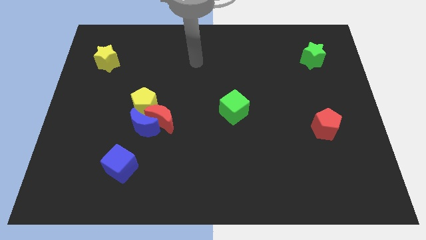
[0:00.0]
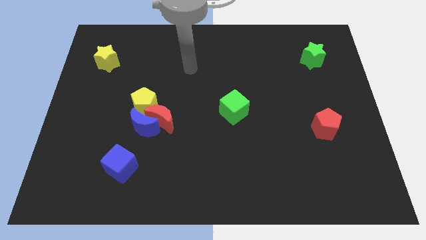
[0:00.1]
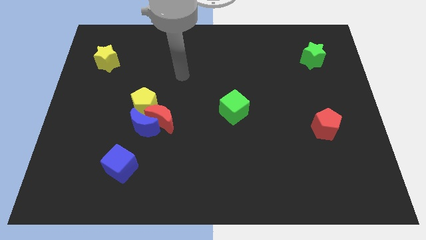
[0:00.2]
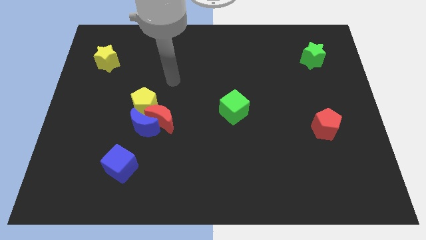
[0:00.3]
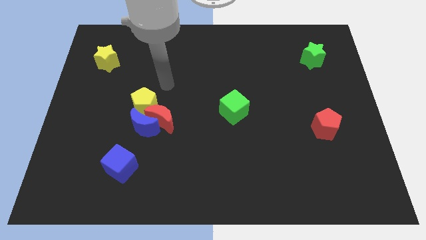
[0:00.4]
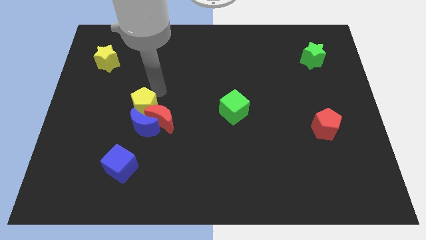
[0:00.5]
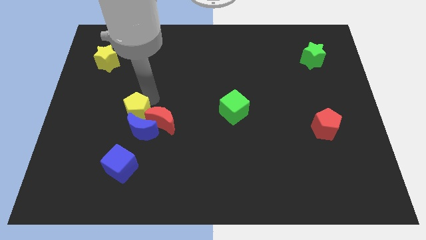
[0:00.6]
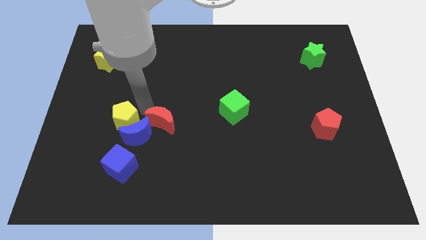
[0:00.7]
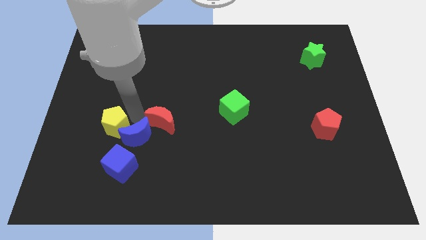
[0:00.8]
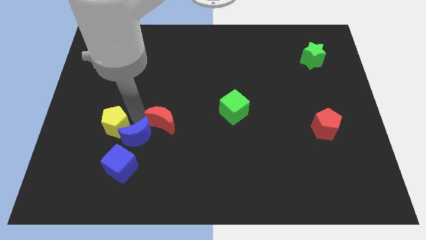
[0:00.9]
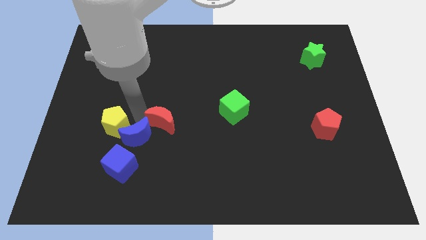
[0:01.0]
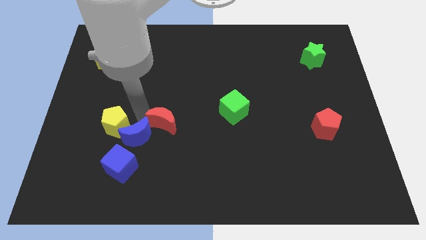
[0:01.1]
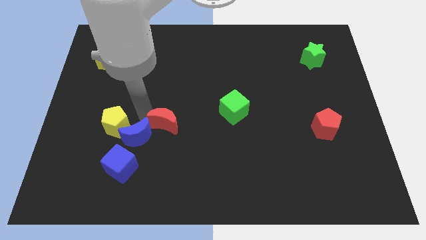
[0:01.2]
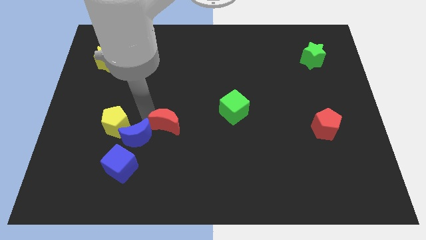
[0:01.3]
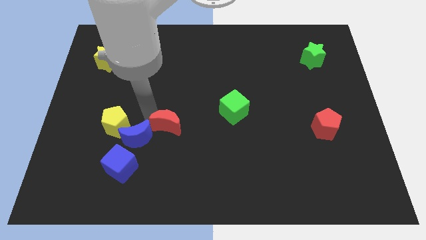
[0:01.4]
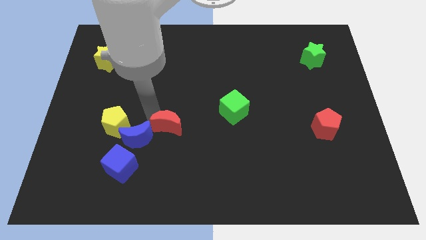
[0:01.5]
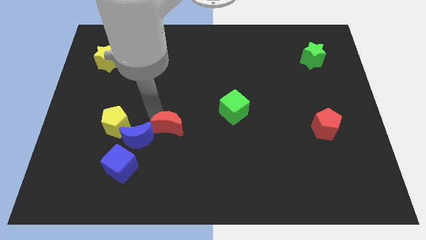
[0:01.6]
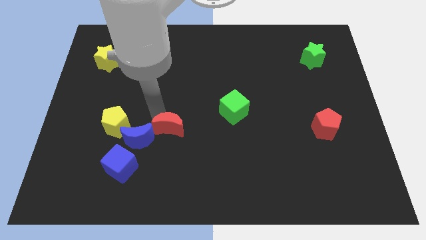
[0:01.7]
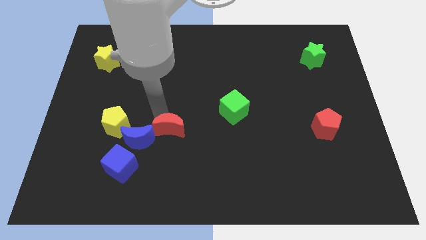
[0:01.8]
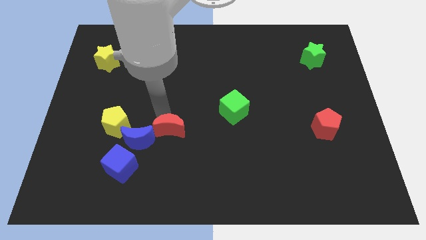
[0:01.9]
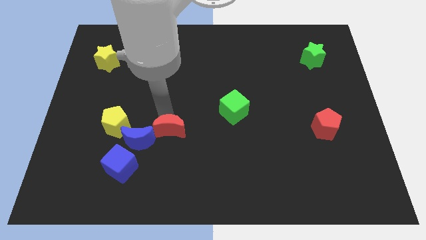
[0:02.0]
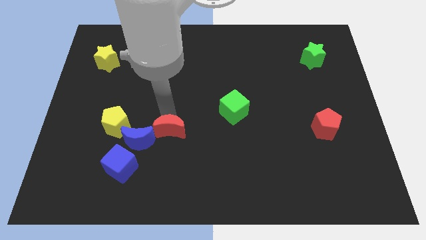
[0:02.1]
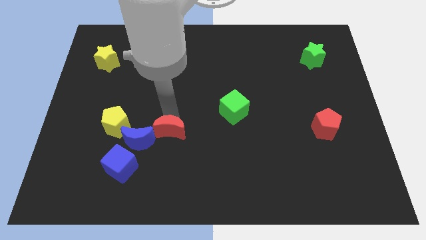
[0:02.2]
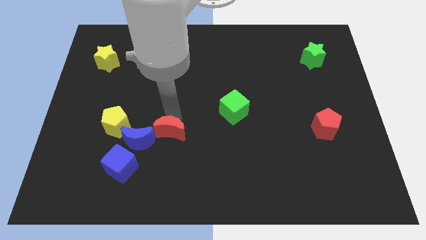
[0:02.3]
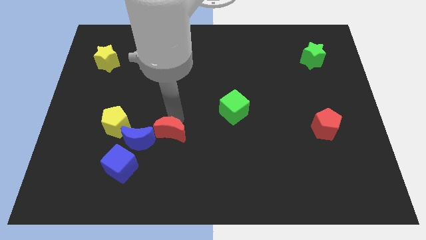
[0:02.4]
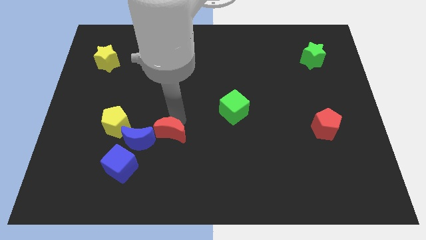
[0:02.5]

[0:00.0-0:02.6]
separate the red moon from the blue moon and yellow pentagon

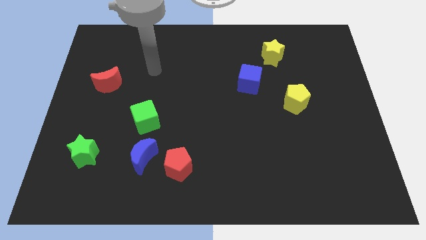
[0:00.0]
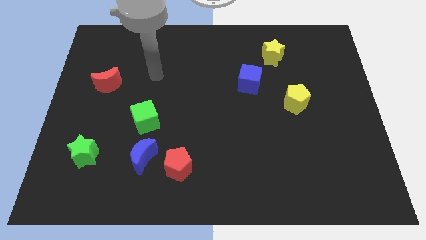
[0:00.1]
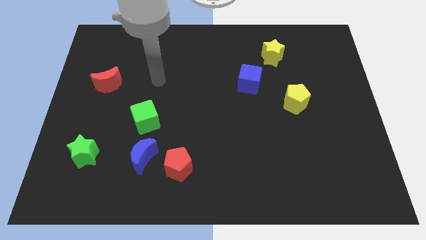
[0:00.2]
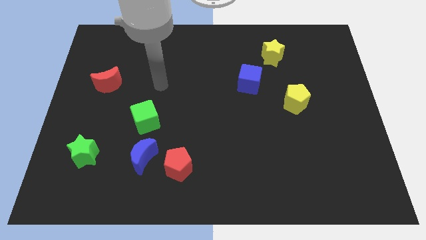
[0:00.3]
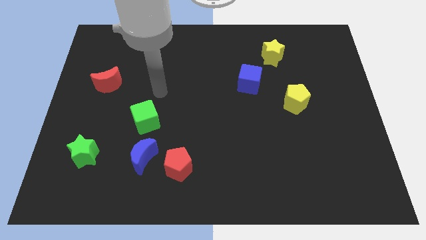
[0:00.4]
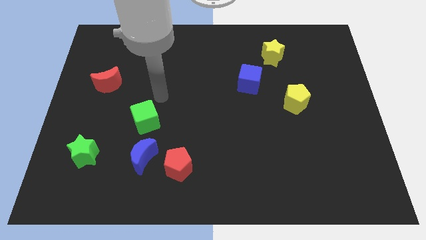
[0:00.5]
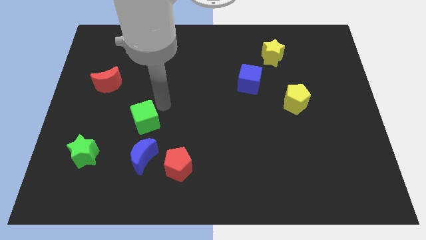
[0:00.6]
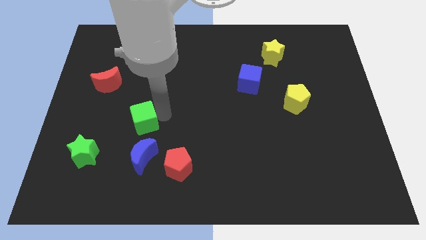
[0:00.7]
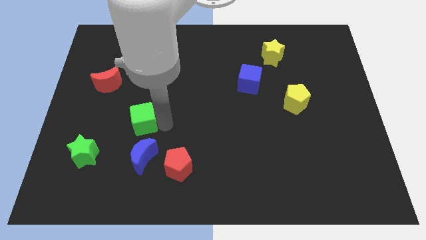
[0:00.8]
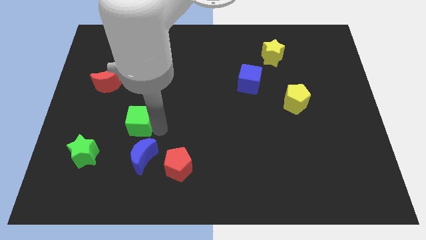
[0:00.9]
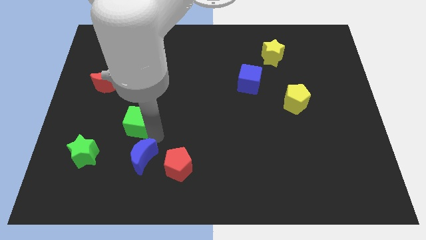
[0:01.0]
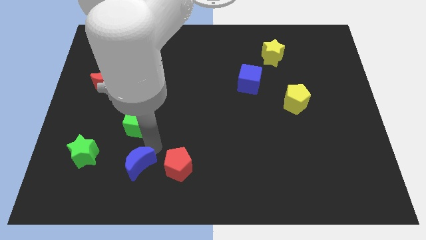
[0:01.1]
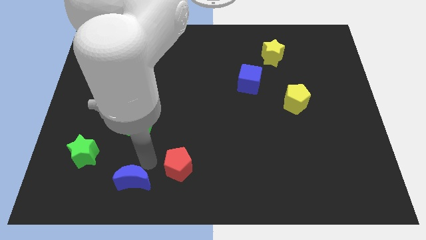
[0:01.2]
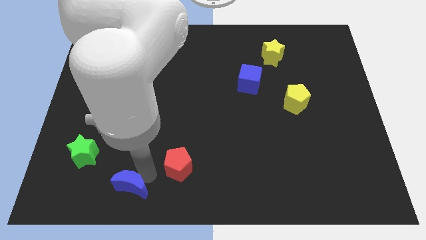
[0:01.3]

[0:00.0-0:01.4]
move the red pentagon away from the blue moon

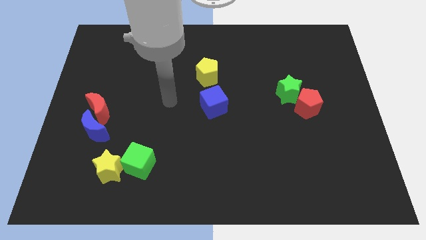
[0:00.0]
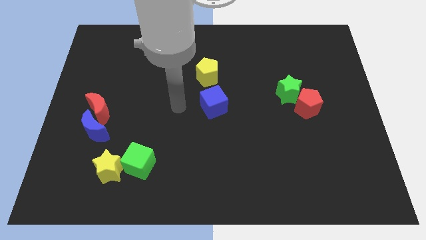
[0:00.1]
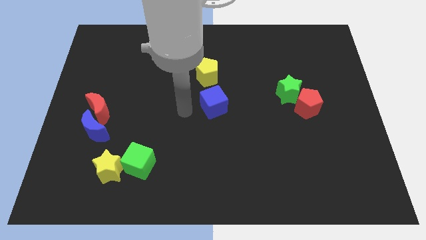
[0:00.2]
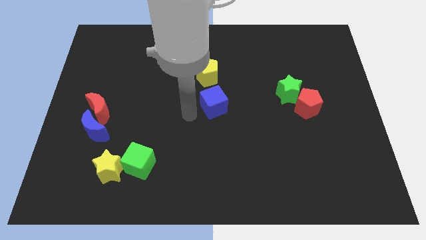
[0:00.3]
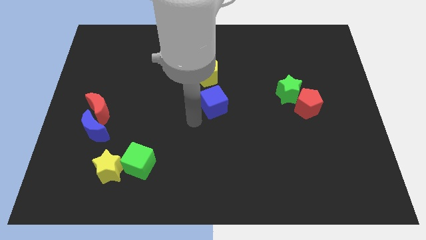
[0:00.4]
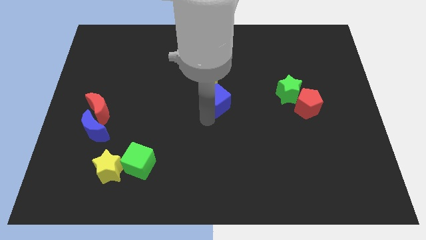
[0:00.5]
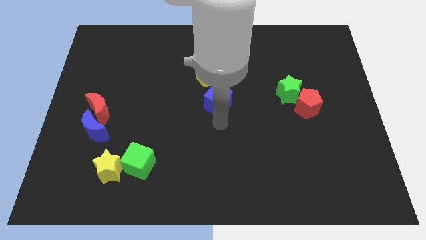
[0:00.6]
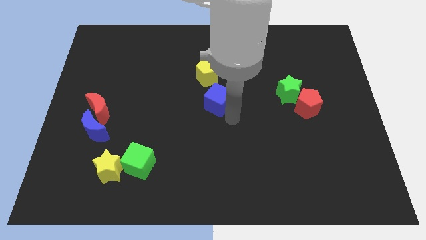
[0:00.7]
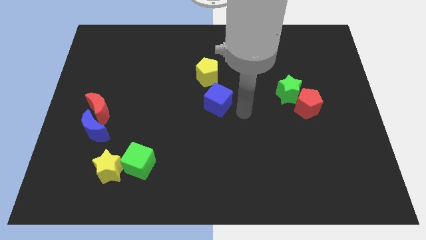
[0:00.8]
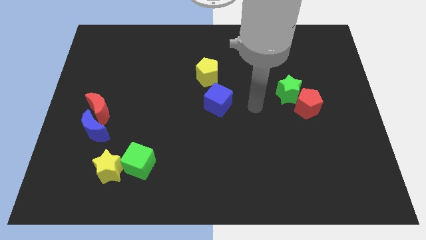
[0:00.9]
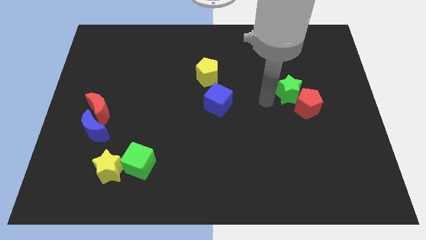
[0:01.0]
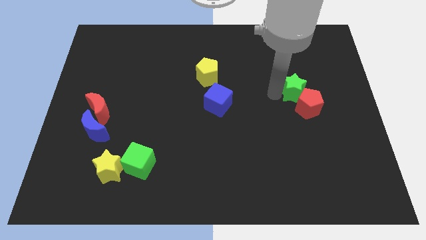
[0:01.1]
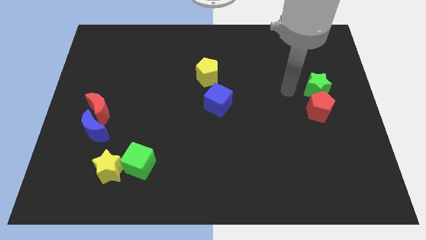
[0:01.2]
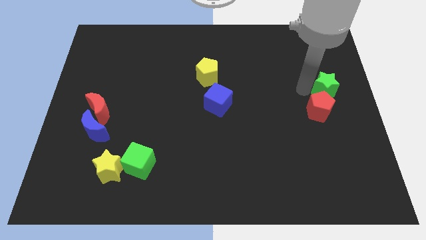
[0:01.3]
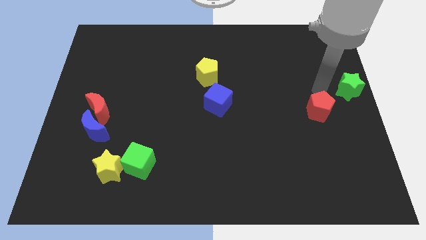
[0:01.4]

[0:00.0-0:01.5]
pull the red pentagon apart from the green star

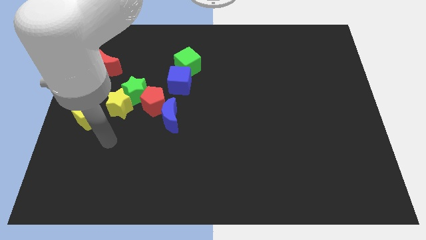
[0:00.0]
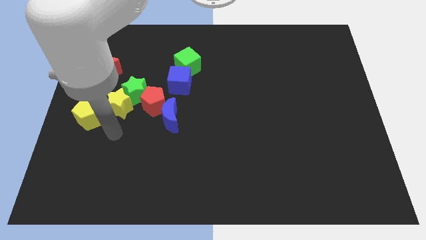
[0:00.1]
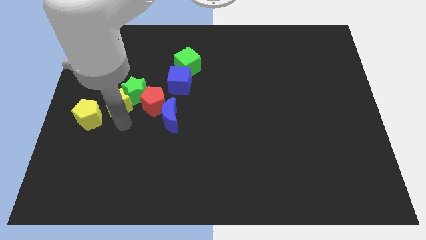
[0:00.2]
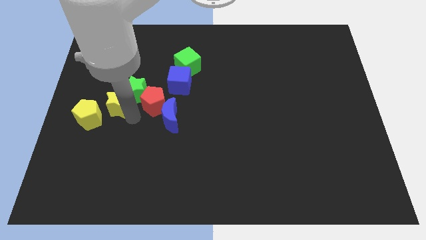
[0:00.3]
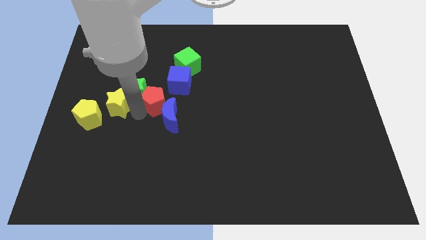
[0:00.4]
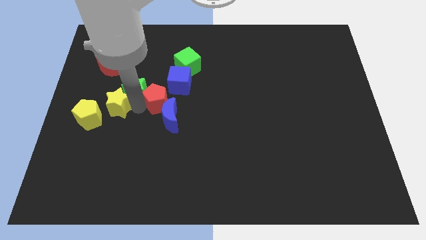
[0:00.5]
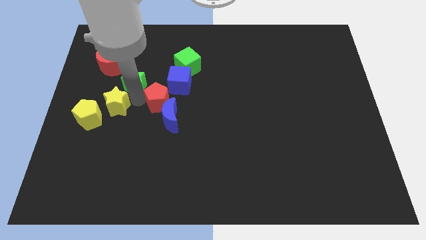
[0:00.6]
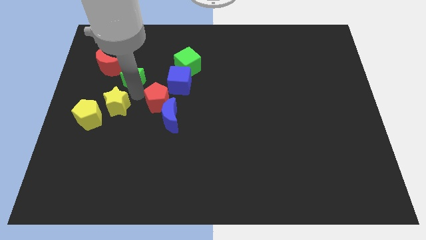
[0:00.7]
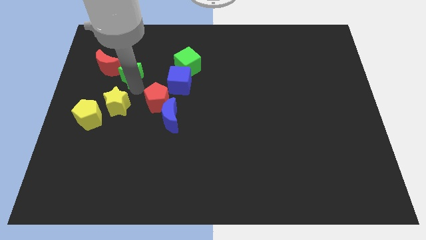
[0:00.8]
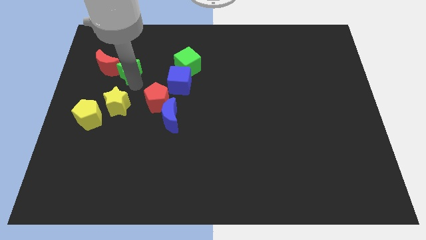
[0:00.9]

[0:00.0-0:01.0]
separate the green star from the yellow star and red pentagon

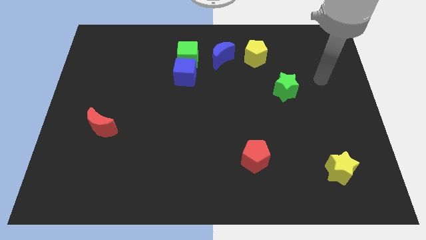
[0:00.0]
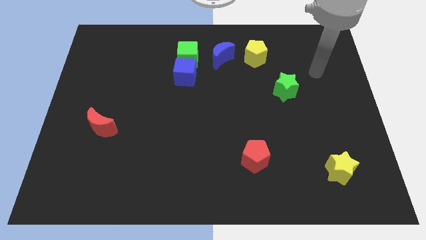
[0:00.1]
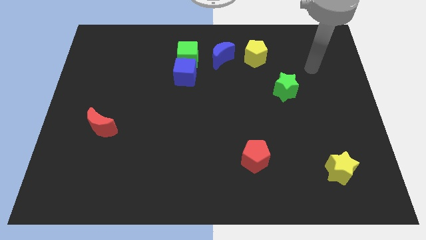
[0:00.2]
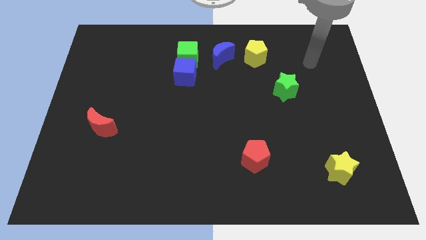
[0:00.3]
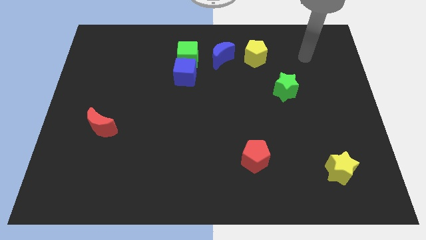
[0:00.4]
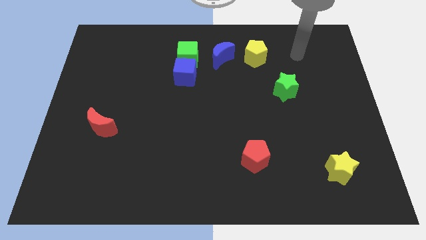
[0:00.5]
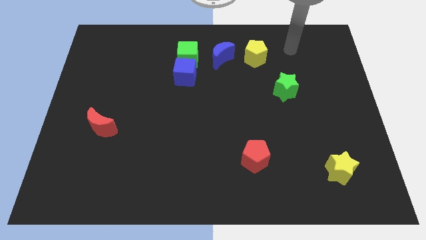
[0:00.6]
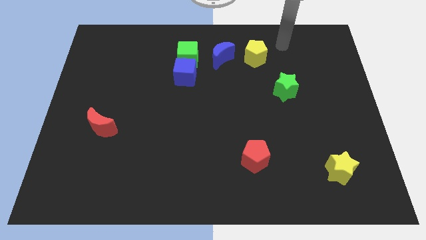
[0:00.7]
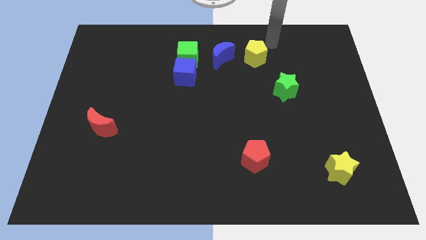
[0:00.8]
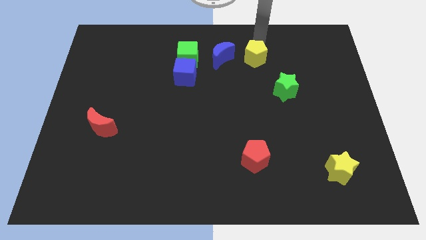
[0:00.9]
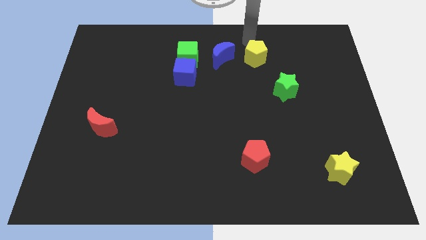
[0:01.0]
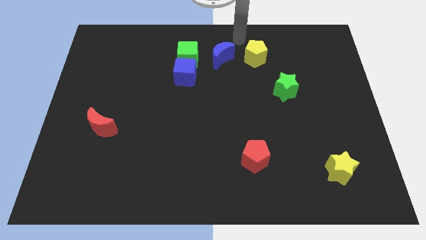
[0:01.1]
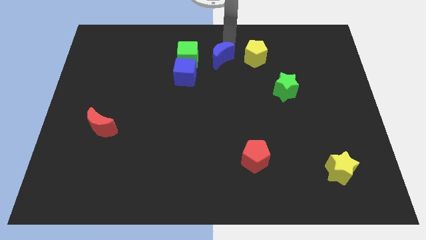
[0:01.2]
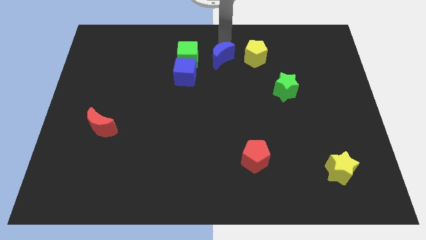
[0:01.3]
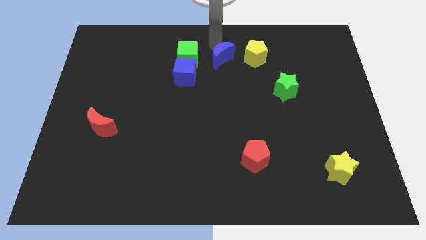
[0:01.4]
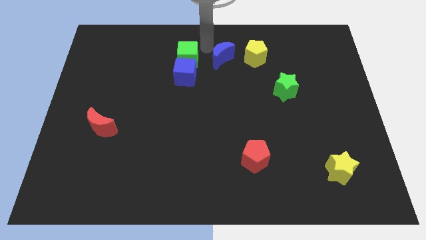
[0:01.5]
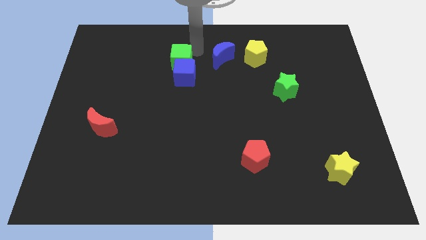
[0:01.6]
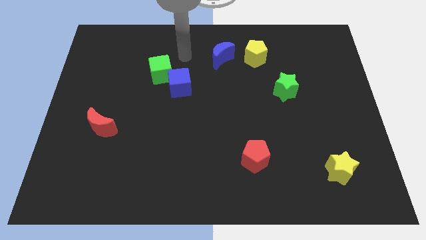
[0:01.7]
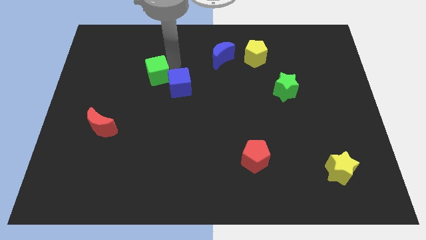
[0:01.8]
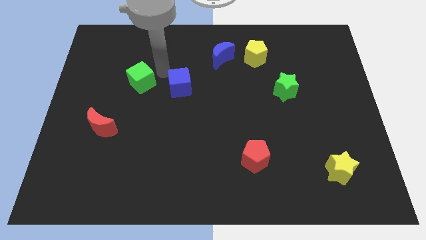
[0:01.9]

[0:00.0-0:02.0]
pull the blue cube apart from the green cube

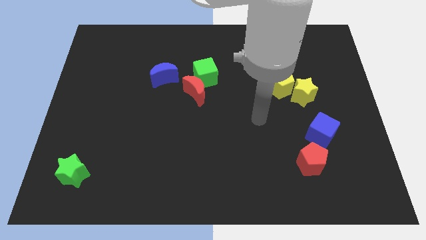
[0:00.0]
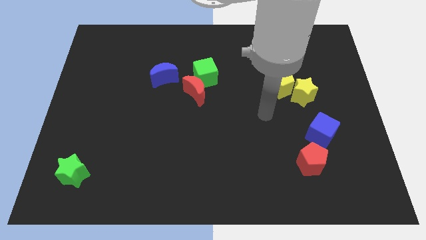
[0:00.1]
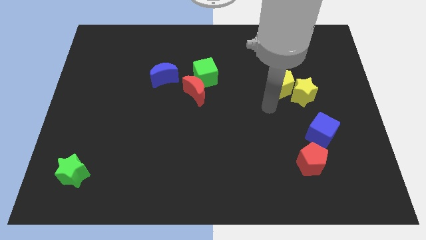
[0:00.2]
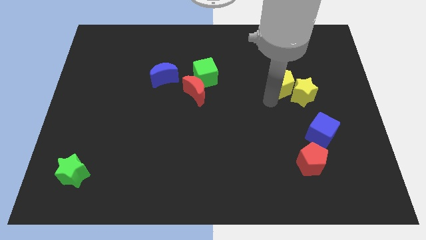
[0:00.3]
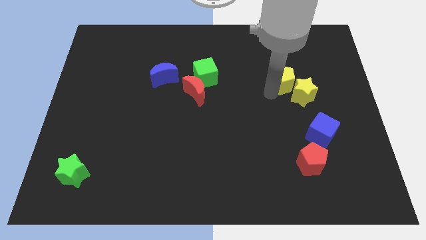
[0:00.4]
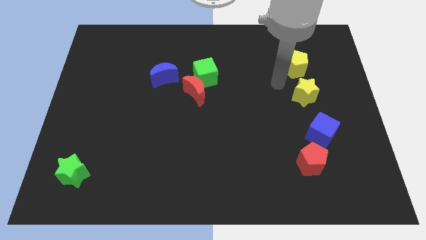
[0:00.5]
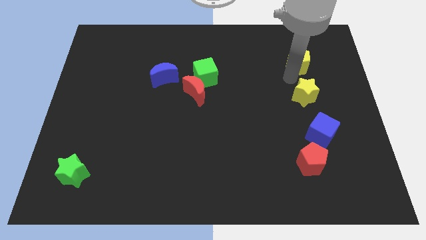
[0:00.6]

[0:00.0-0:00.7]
separate the yellow star from the yellow pentagon
